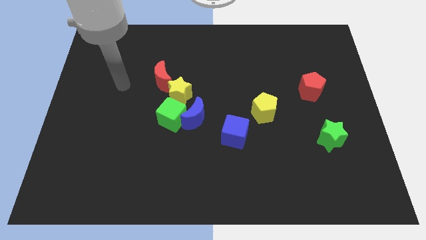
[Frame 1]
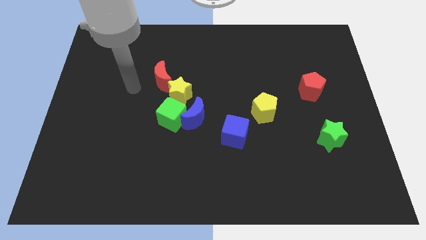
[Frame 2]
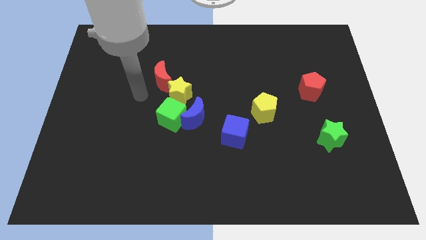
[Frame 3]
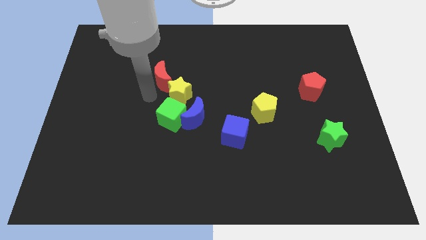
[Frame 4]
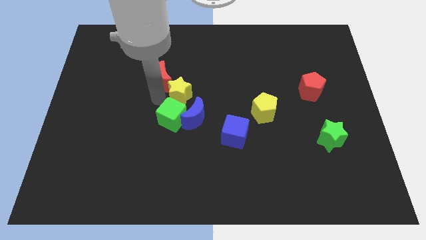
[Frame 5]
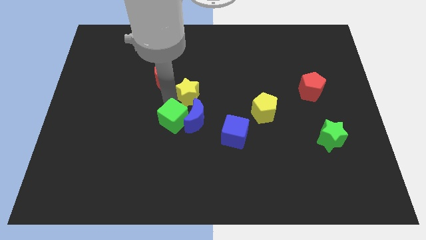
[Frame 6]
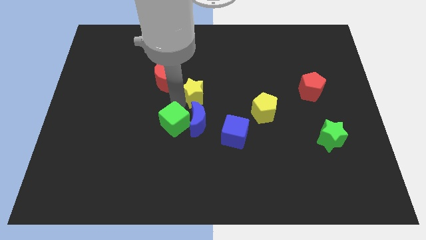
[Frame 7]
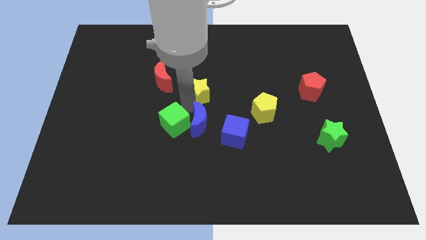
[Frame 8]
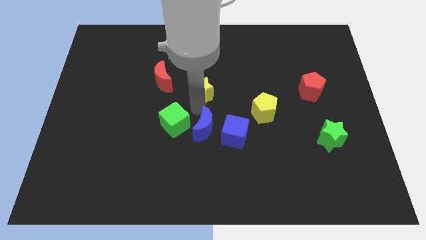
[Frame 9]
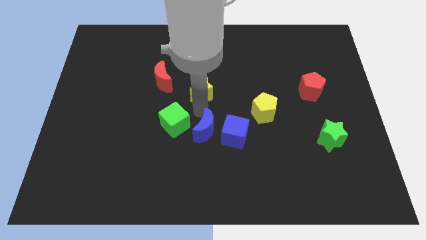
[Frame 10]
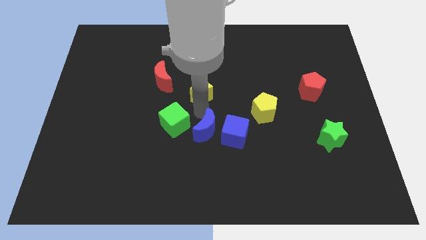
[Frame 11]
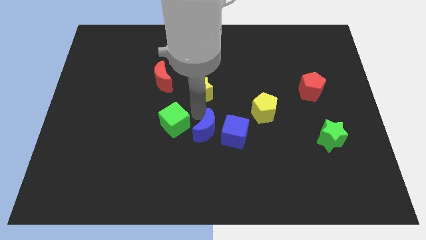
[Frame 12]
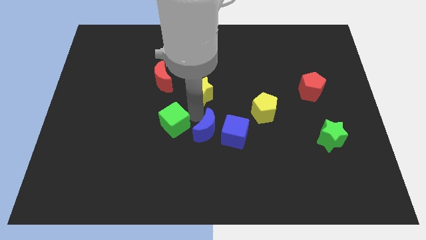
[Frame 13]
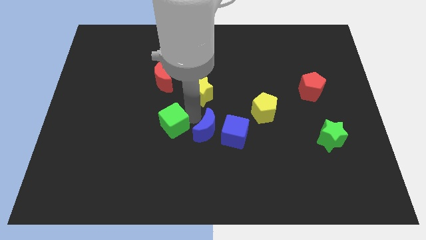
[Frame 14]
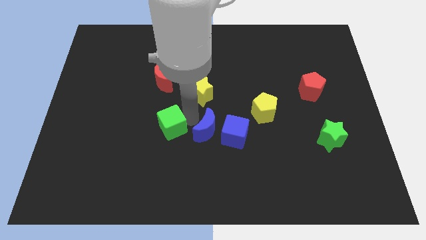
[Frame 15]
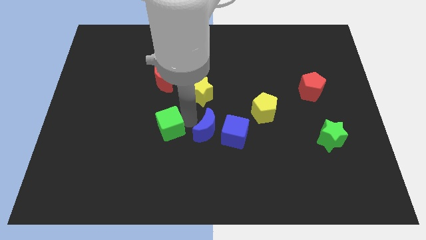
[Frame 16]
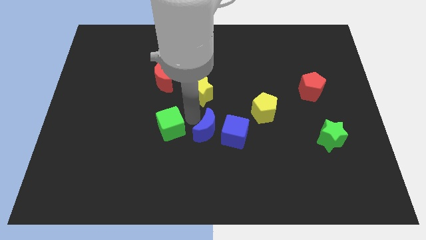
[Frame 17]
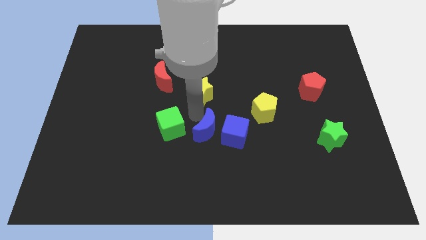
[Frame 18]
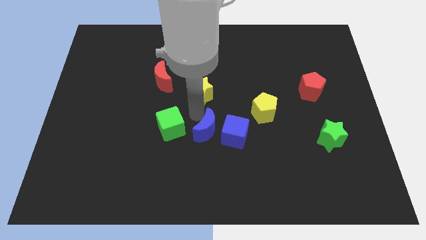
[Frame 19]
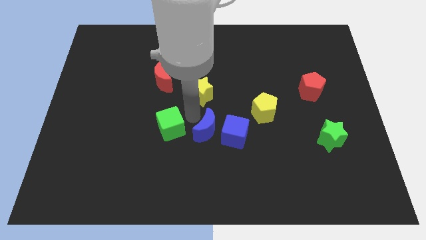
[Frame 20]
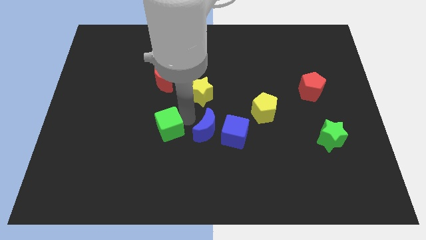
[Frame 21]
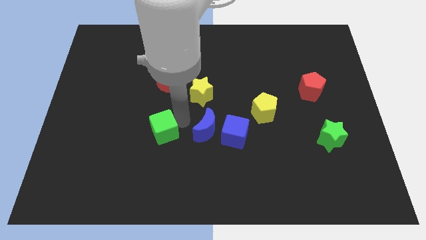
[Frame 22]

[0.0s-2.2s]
pull the green cube apart from the blue moon and yellow star

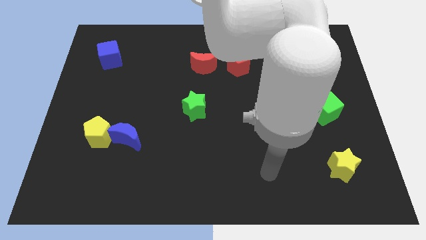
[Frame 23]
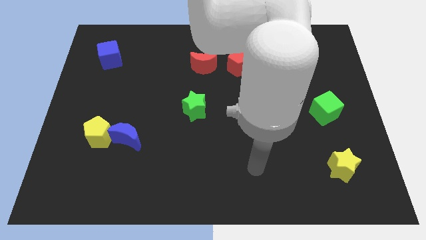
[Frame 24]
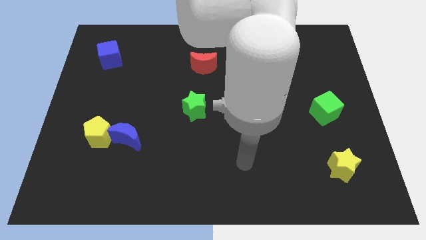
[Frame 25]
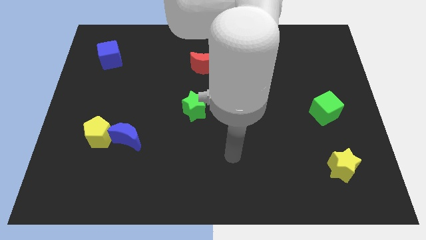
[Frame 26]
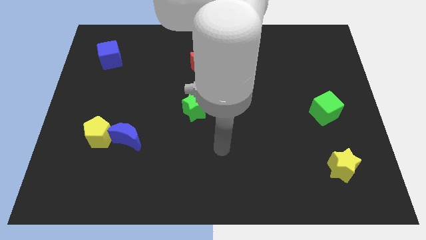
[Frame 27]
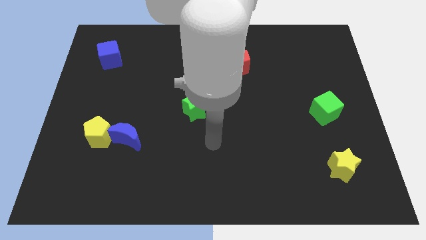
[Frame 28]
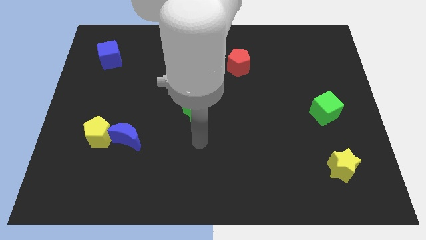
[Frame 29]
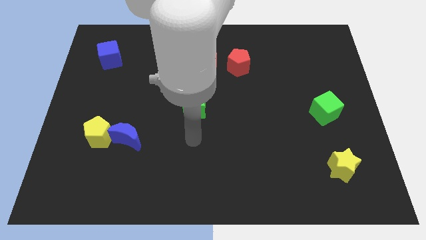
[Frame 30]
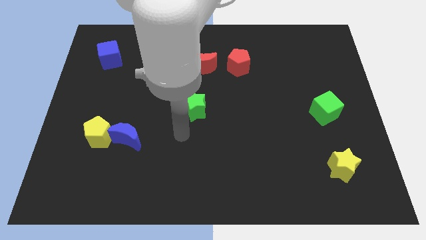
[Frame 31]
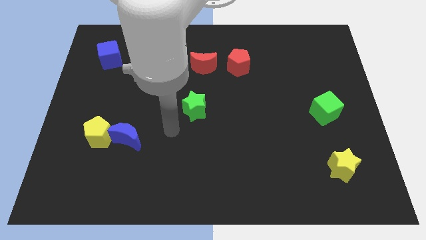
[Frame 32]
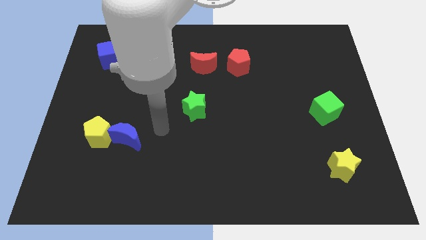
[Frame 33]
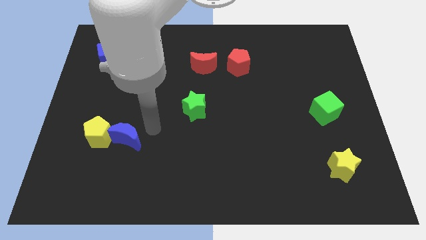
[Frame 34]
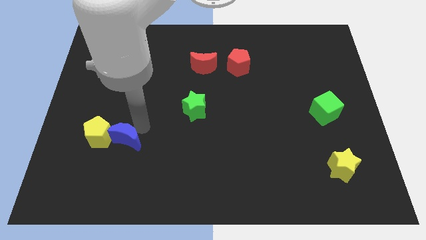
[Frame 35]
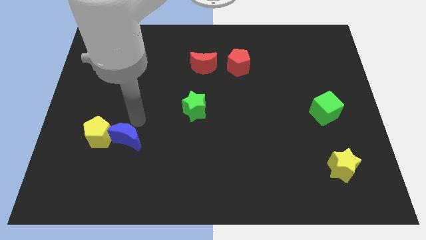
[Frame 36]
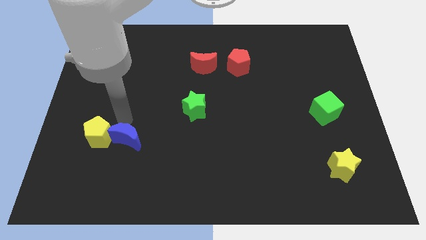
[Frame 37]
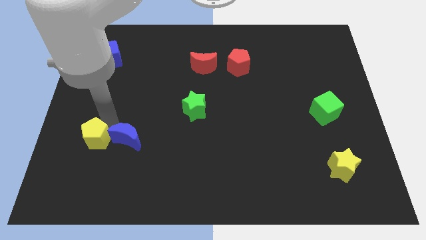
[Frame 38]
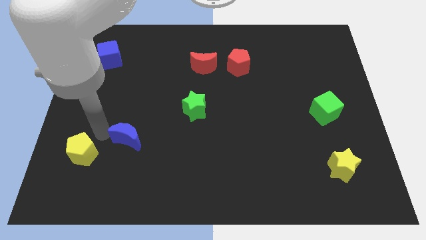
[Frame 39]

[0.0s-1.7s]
move the blue moon away from the yellow pentagon

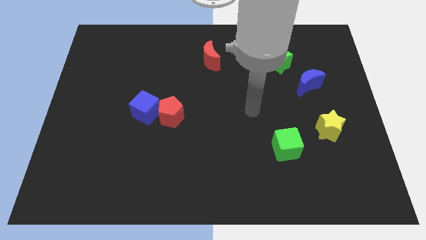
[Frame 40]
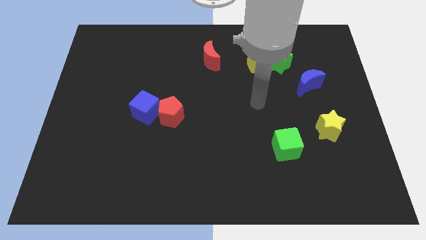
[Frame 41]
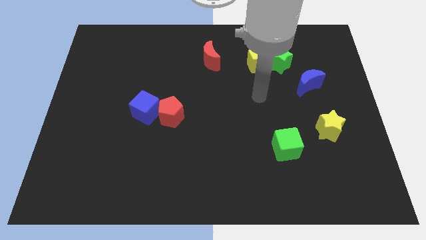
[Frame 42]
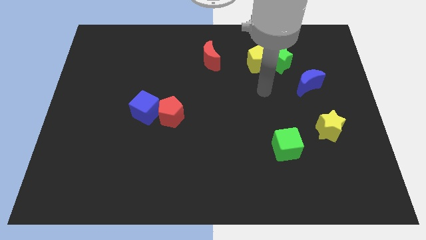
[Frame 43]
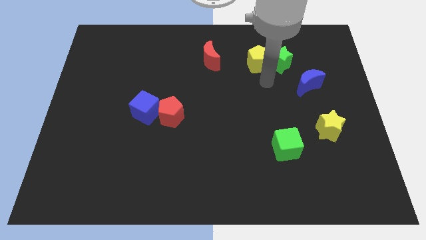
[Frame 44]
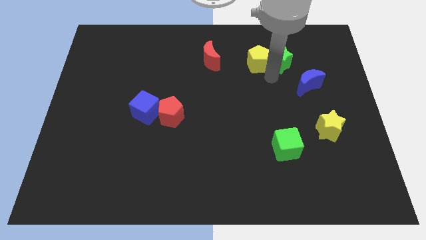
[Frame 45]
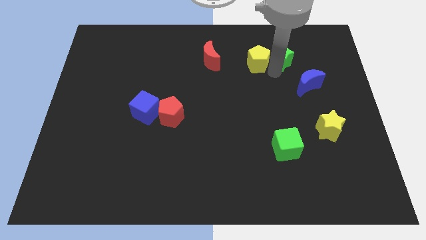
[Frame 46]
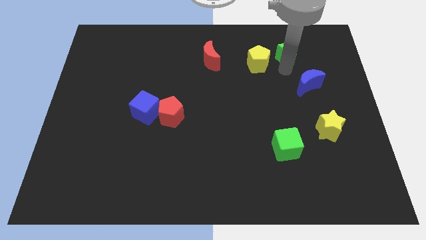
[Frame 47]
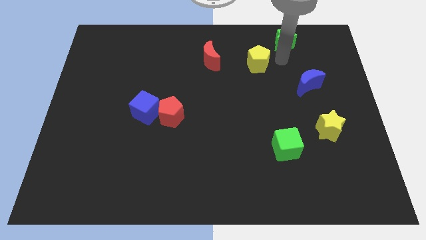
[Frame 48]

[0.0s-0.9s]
pull the yellow pentagon apart from the green star

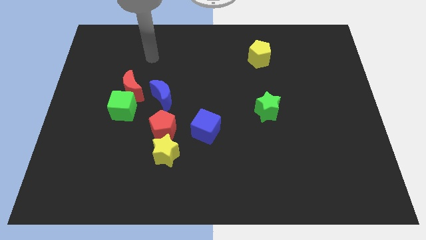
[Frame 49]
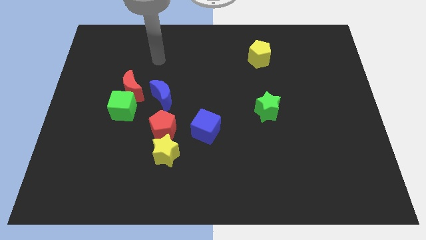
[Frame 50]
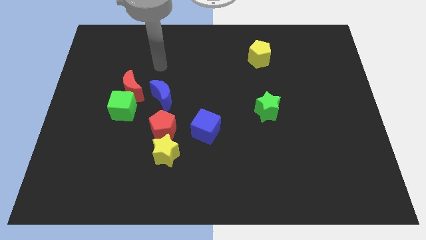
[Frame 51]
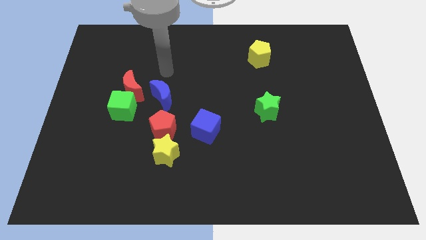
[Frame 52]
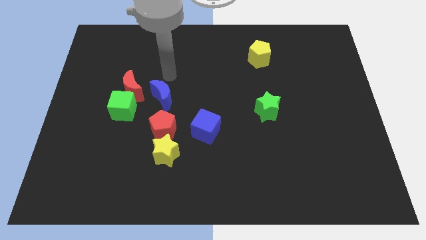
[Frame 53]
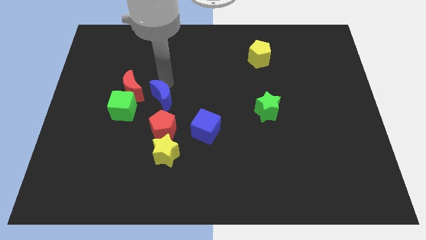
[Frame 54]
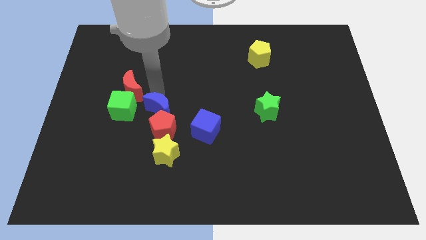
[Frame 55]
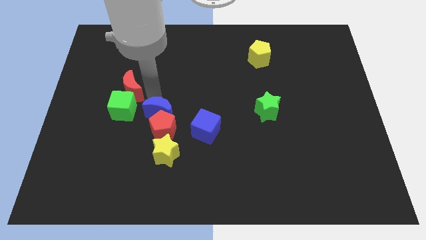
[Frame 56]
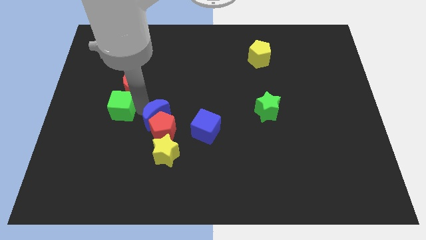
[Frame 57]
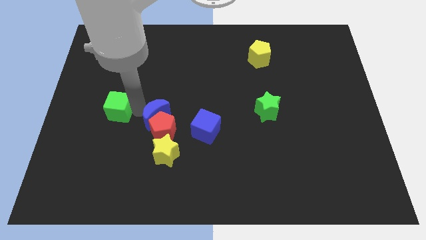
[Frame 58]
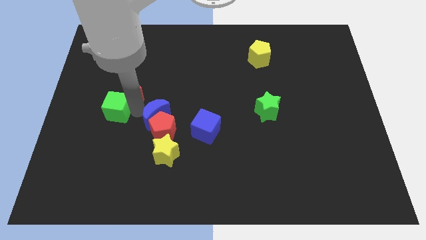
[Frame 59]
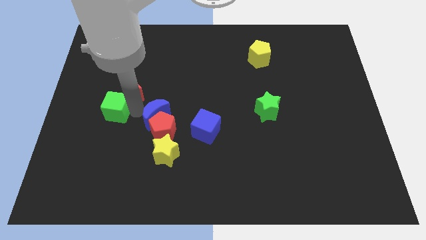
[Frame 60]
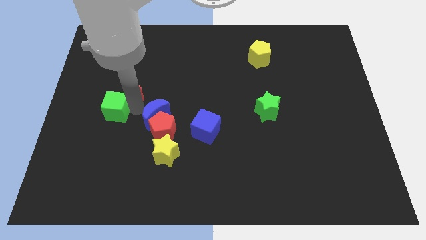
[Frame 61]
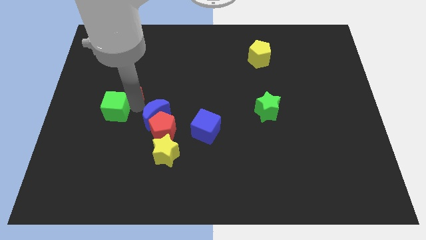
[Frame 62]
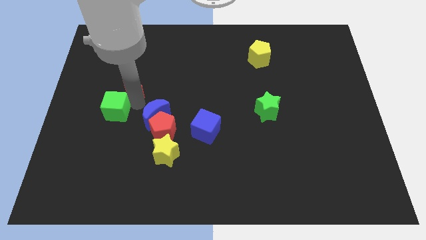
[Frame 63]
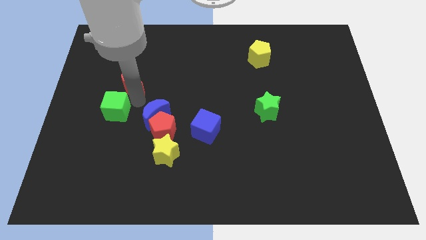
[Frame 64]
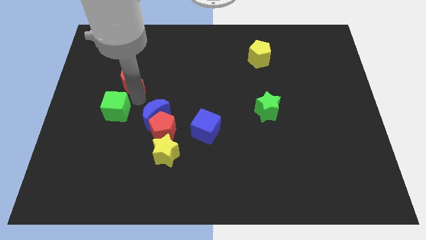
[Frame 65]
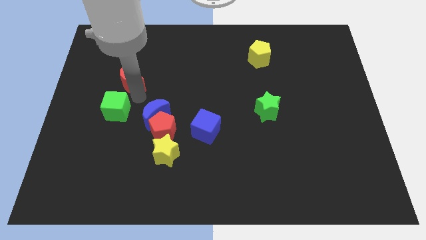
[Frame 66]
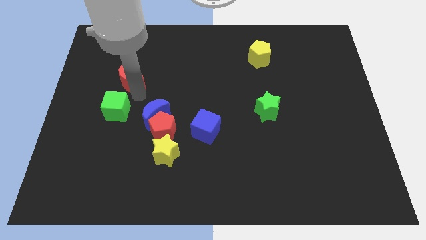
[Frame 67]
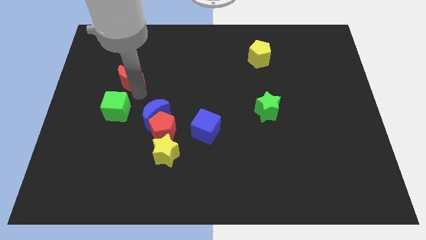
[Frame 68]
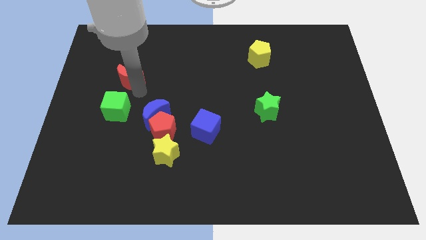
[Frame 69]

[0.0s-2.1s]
separate the red moon from the green cube and blue moon

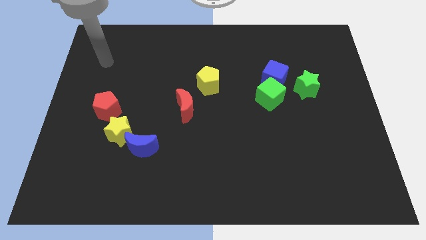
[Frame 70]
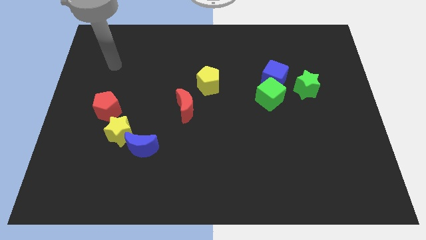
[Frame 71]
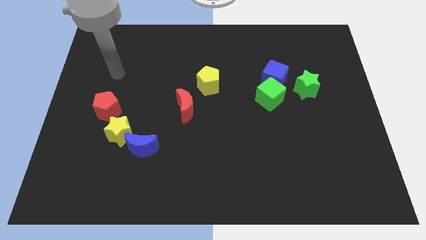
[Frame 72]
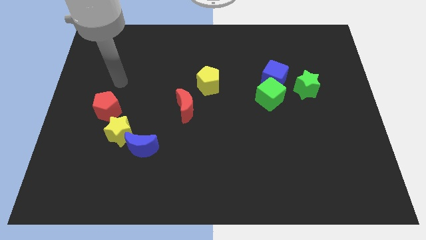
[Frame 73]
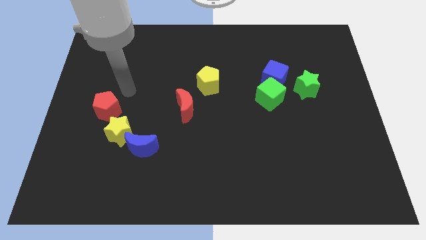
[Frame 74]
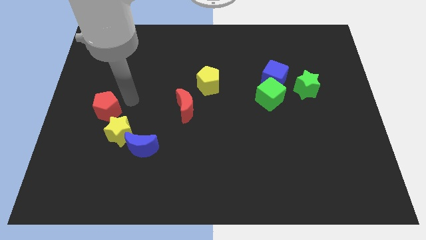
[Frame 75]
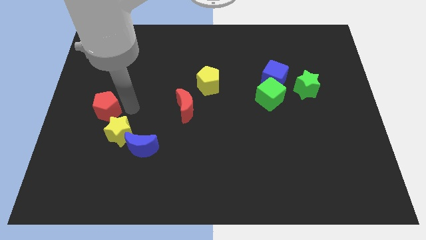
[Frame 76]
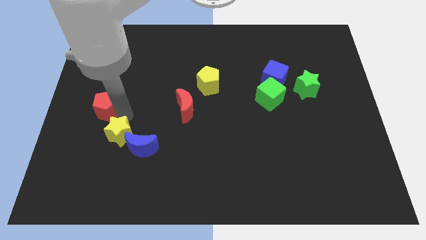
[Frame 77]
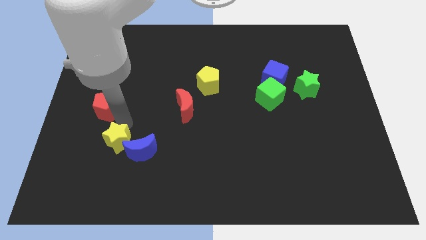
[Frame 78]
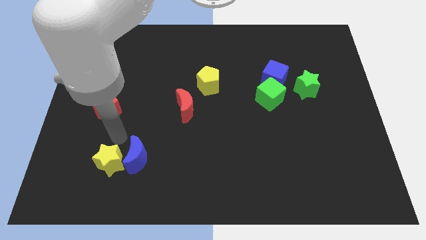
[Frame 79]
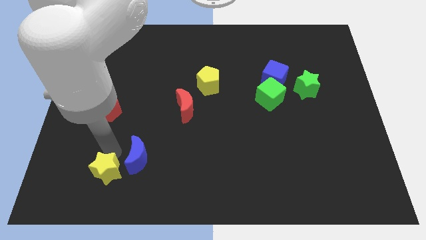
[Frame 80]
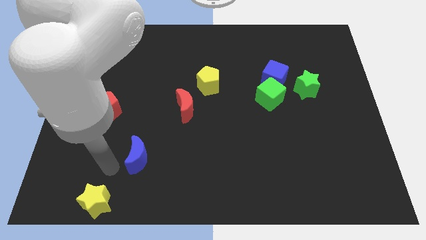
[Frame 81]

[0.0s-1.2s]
move the blue moon away from the yellow star

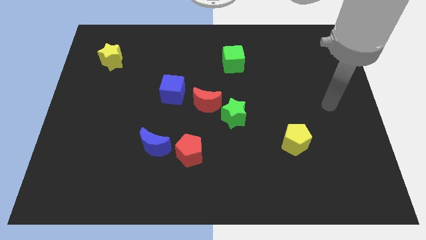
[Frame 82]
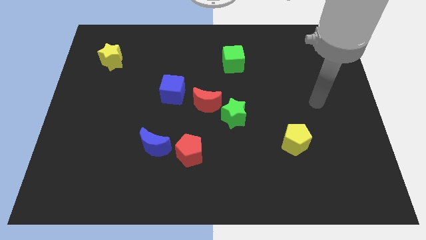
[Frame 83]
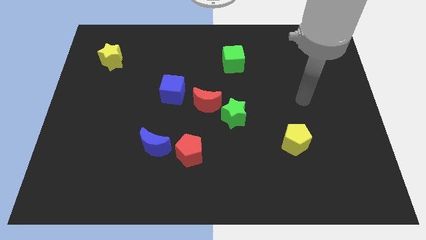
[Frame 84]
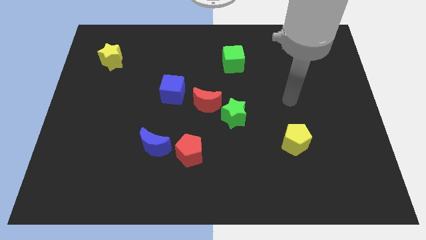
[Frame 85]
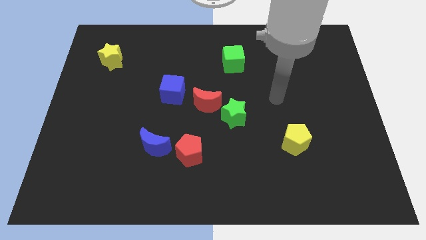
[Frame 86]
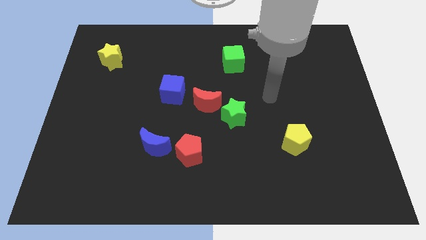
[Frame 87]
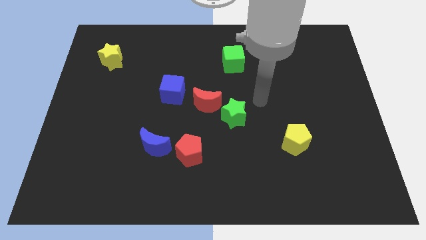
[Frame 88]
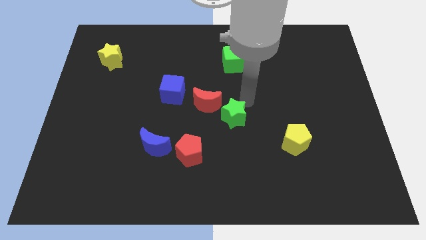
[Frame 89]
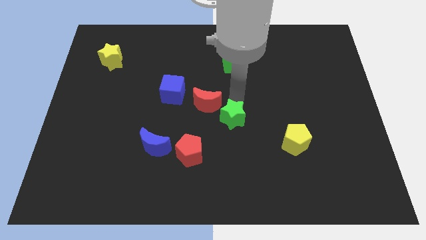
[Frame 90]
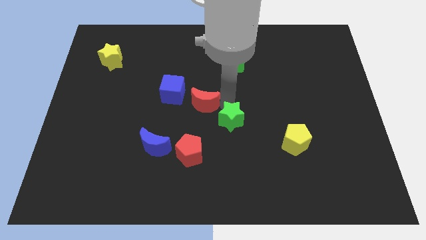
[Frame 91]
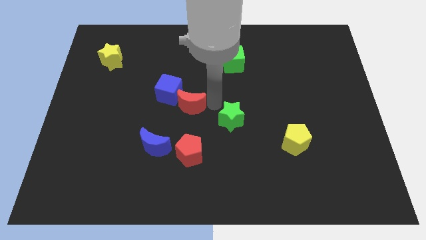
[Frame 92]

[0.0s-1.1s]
pull the green star apart from the red moon
